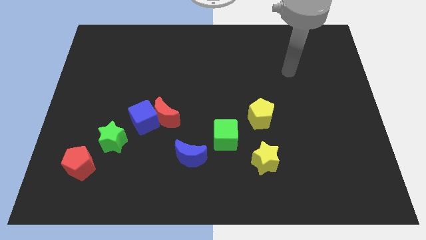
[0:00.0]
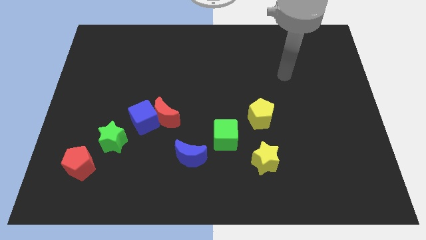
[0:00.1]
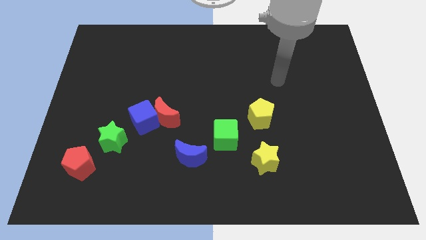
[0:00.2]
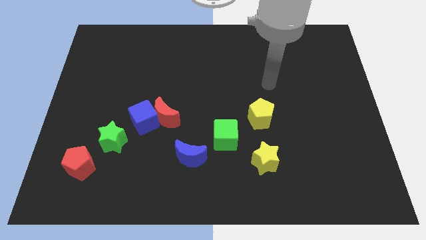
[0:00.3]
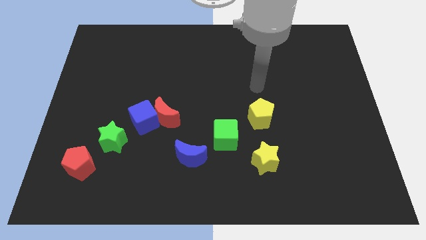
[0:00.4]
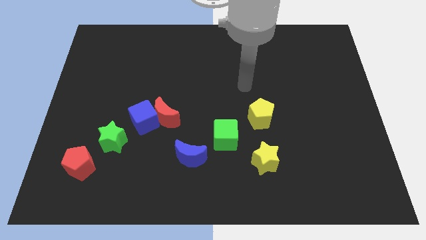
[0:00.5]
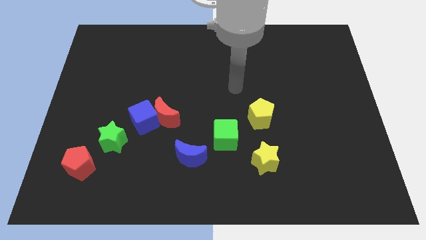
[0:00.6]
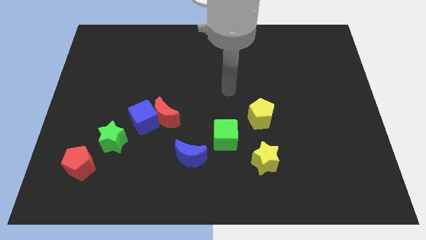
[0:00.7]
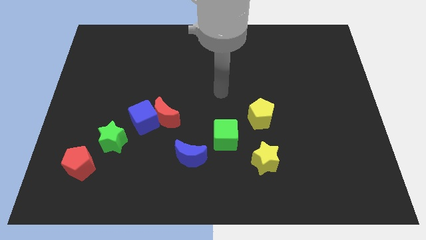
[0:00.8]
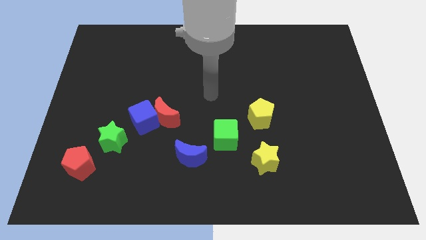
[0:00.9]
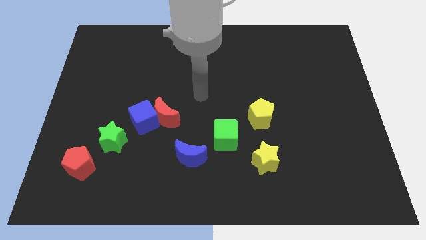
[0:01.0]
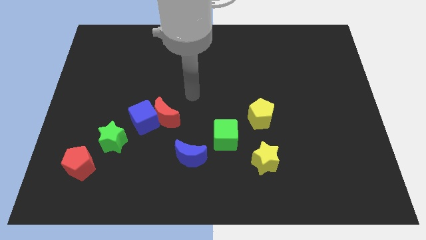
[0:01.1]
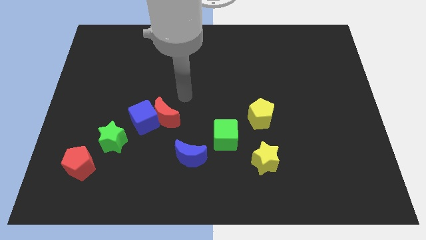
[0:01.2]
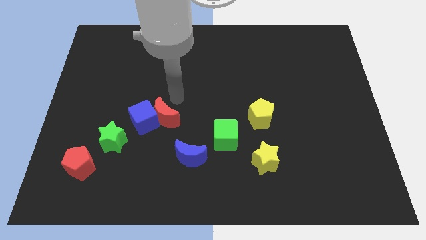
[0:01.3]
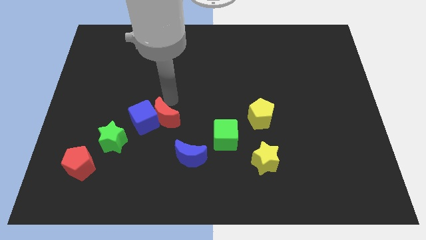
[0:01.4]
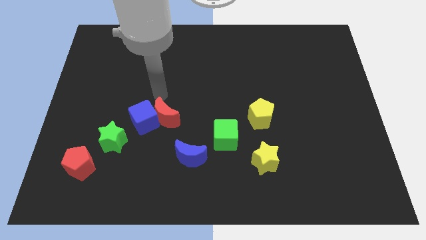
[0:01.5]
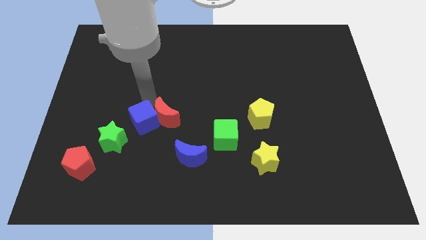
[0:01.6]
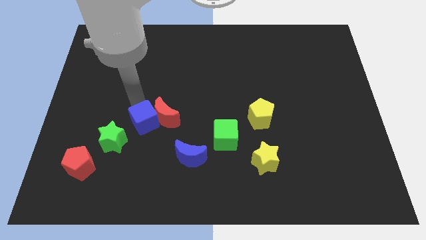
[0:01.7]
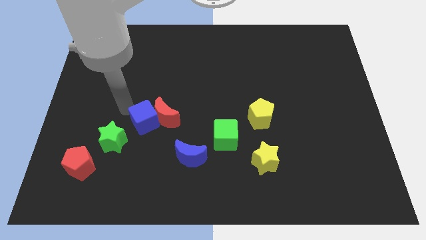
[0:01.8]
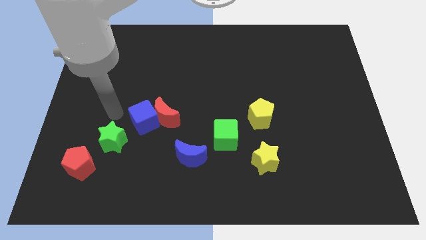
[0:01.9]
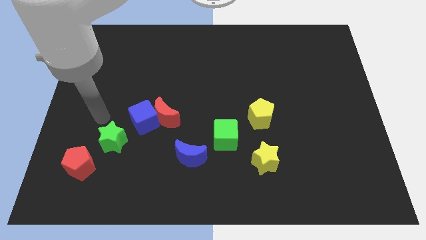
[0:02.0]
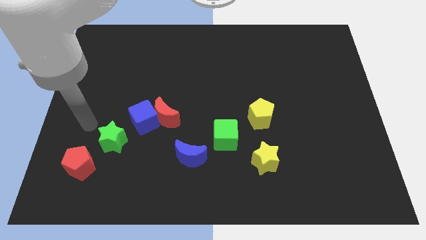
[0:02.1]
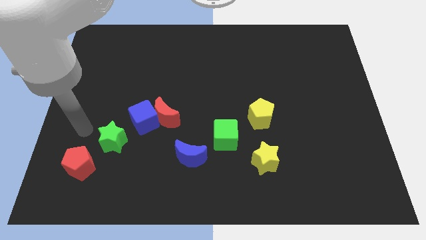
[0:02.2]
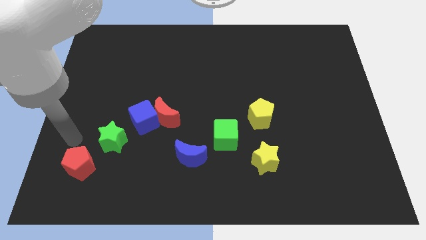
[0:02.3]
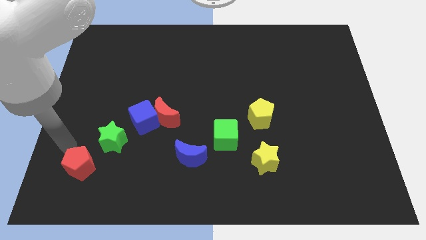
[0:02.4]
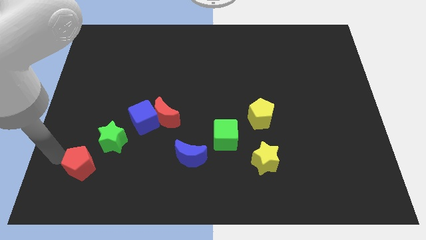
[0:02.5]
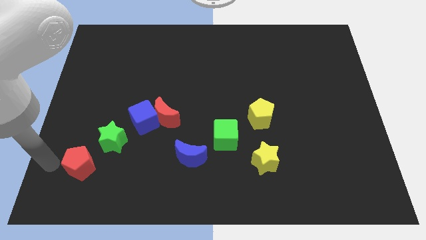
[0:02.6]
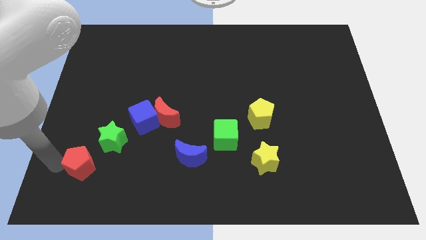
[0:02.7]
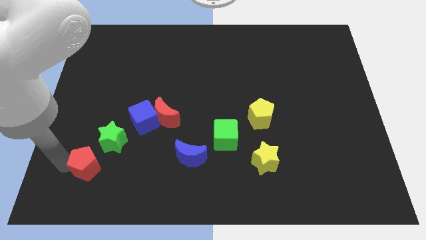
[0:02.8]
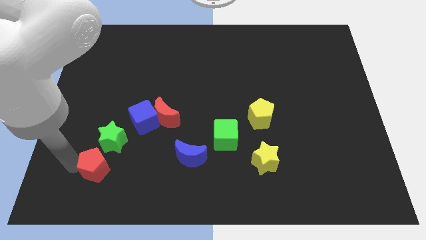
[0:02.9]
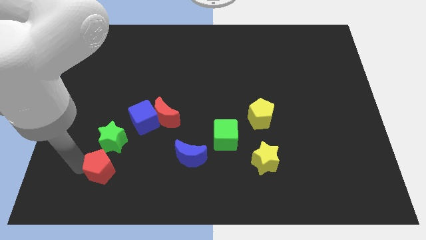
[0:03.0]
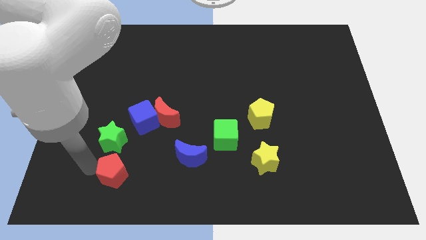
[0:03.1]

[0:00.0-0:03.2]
slide the red pentagon to the right somewhat

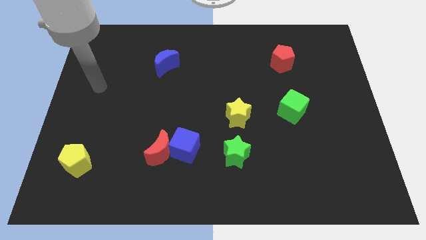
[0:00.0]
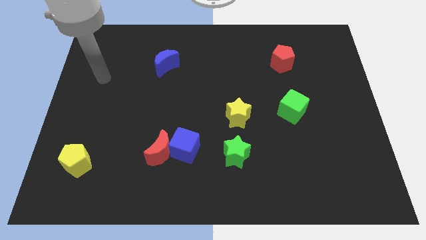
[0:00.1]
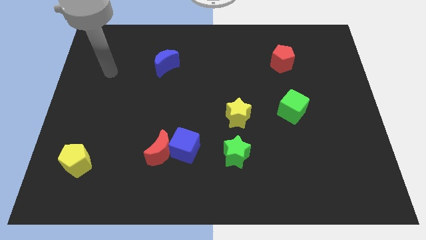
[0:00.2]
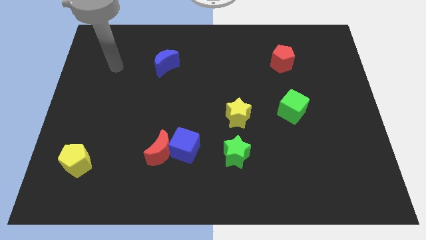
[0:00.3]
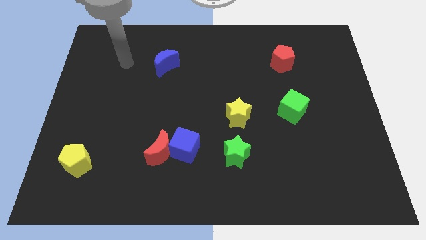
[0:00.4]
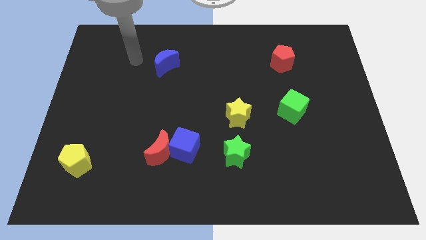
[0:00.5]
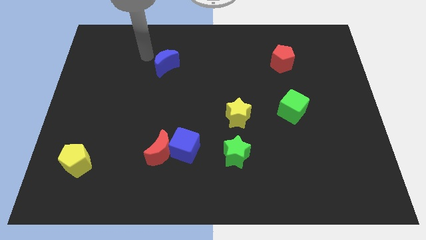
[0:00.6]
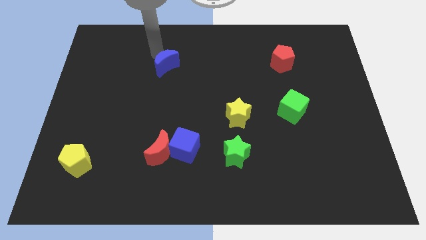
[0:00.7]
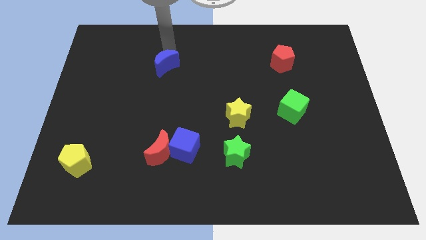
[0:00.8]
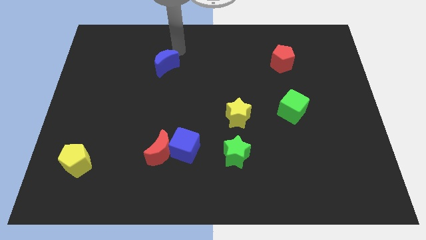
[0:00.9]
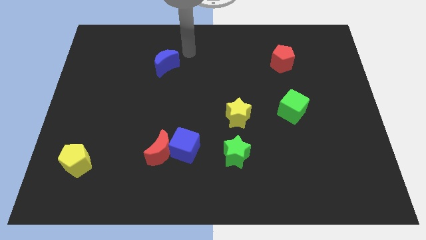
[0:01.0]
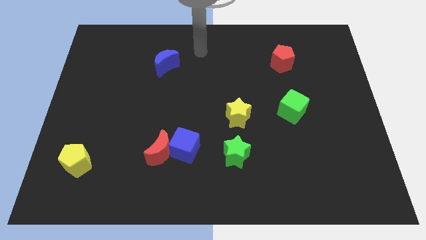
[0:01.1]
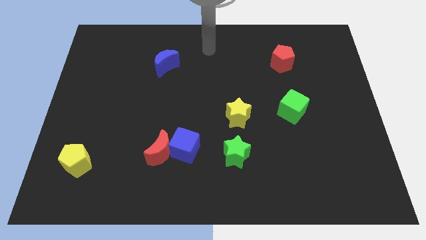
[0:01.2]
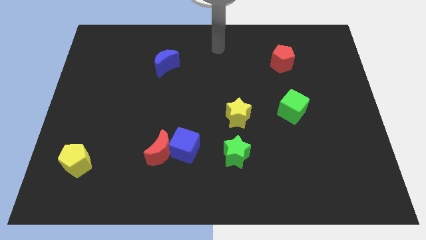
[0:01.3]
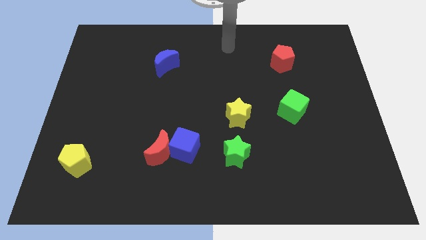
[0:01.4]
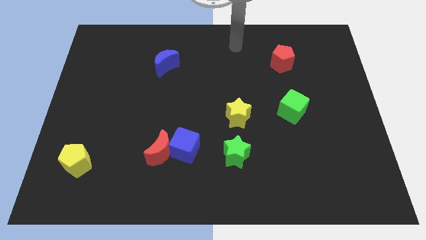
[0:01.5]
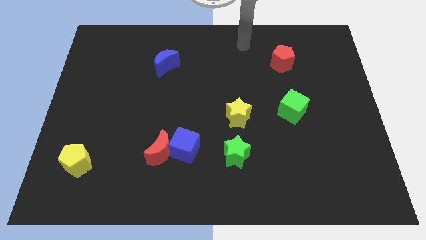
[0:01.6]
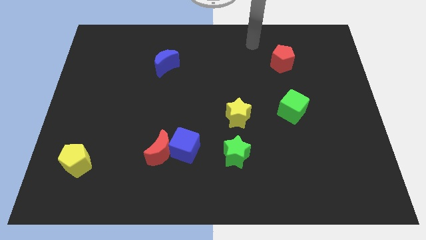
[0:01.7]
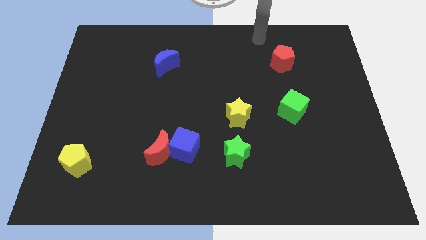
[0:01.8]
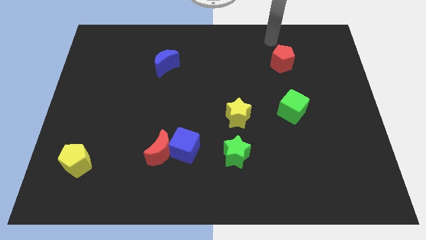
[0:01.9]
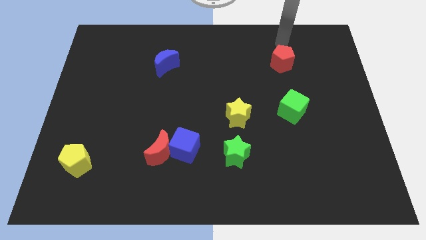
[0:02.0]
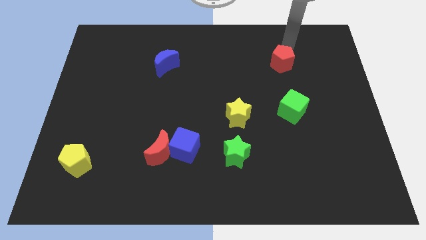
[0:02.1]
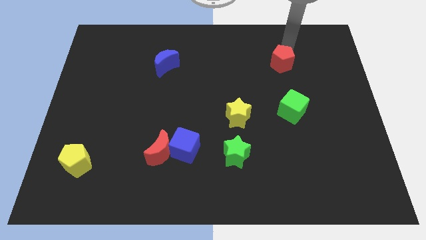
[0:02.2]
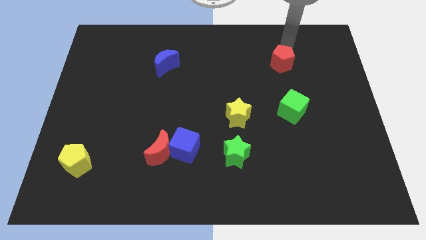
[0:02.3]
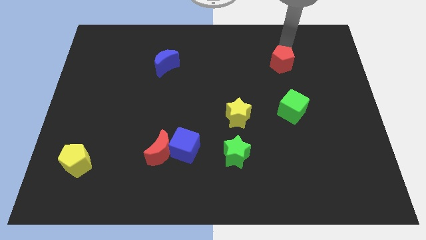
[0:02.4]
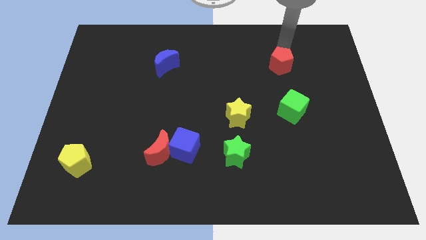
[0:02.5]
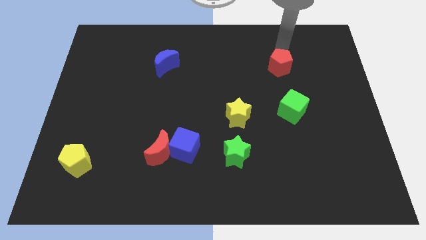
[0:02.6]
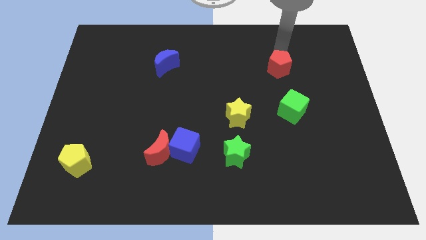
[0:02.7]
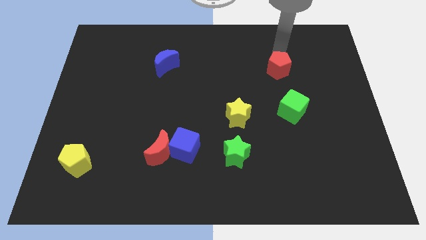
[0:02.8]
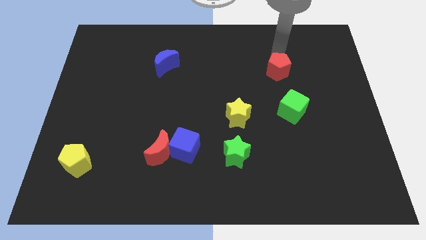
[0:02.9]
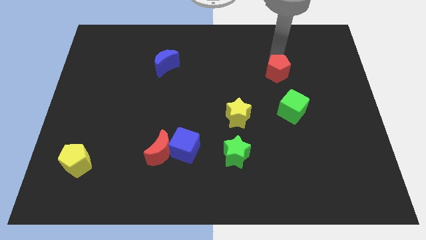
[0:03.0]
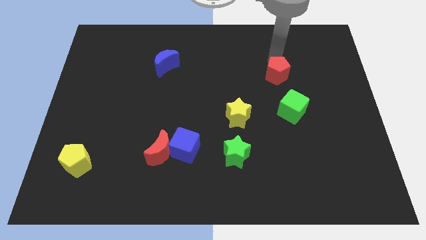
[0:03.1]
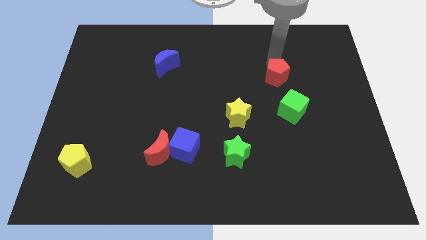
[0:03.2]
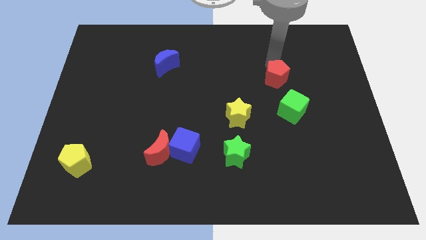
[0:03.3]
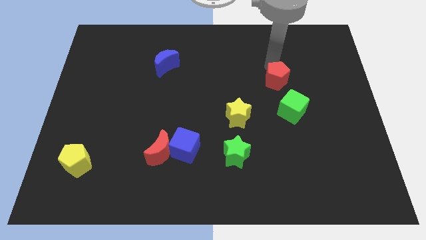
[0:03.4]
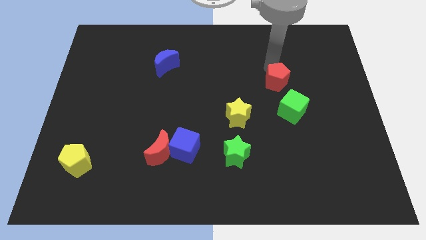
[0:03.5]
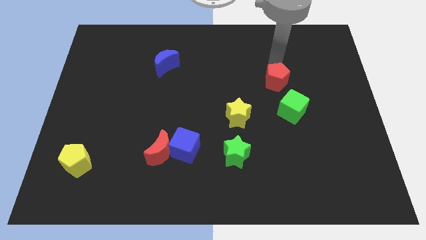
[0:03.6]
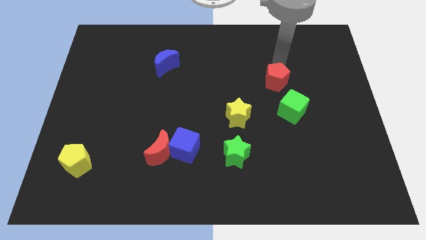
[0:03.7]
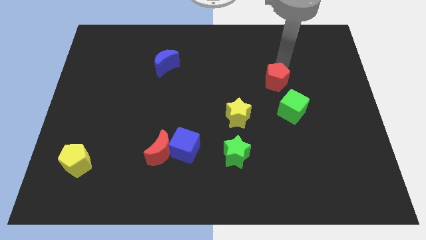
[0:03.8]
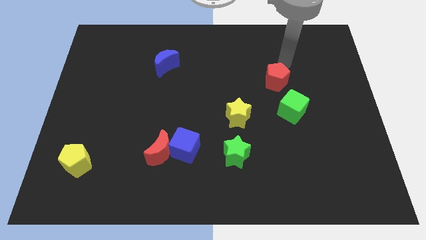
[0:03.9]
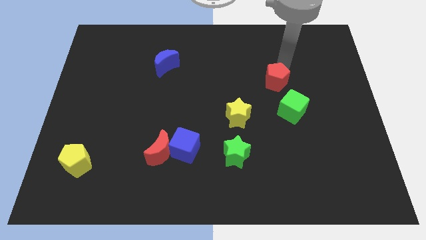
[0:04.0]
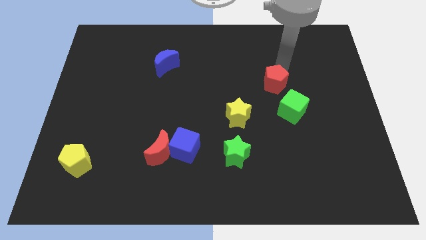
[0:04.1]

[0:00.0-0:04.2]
slightly slide the red pentagon downwards

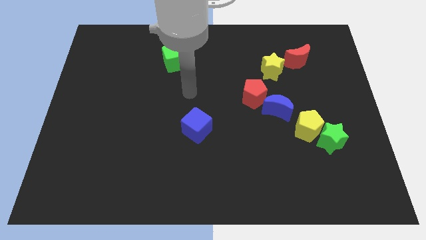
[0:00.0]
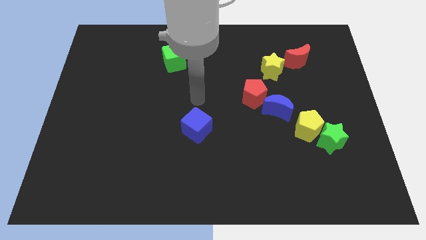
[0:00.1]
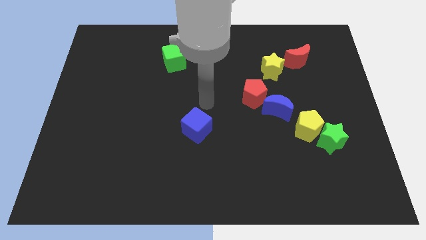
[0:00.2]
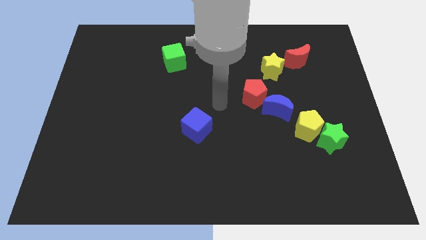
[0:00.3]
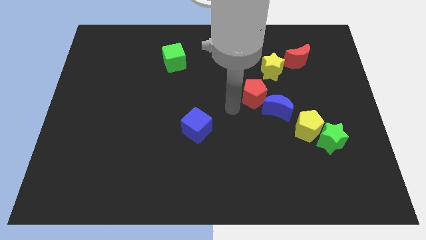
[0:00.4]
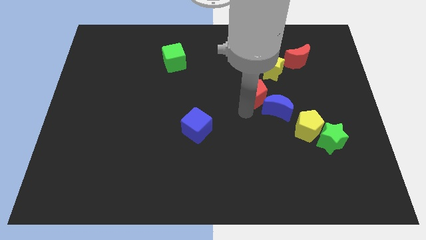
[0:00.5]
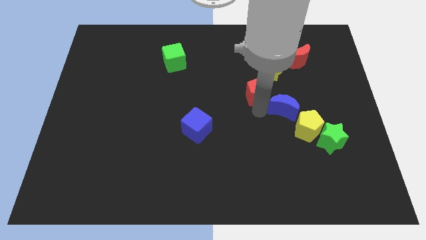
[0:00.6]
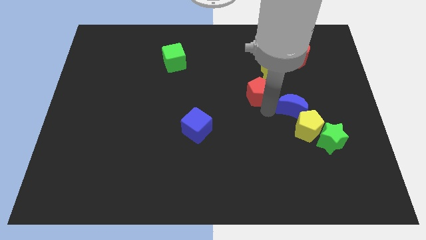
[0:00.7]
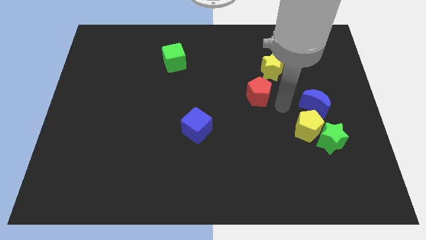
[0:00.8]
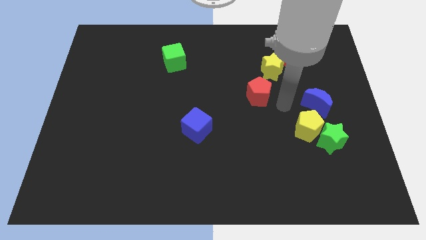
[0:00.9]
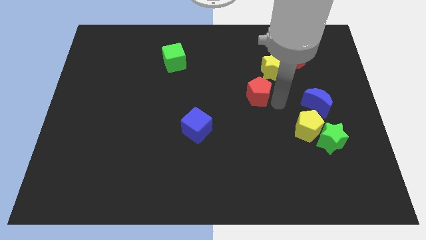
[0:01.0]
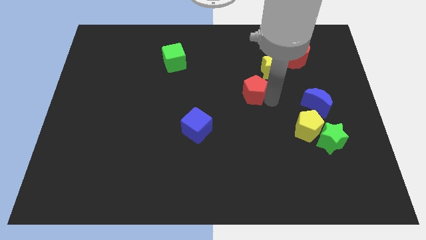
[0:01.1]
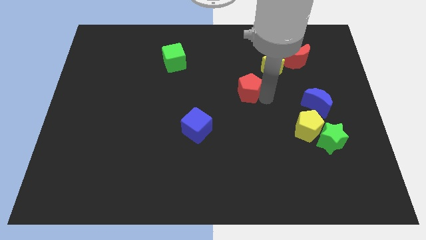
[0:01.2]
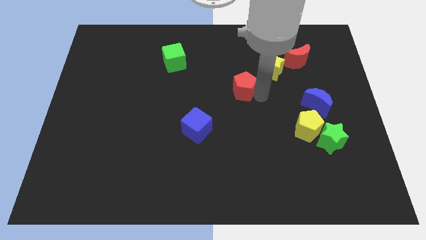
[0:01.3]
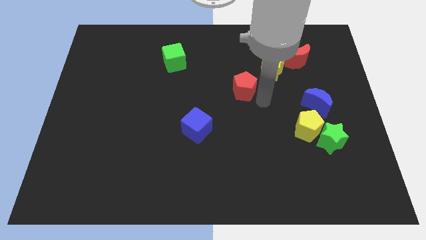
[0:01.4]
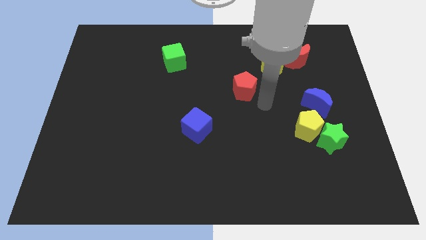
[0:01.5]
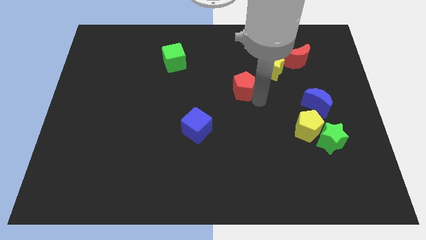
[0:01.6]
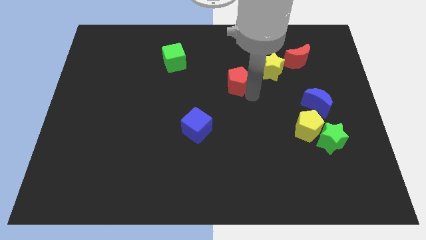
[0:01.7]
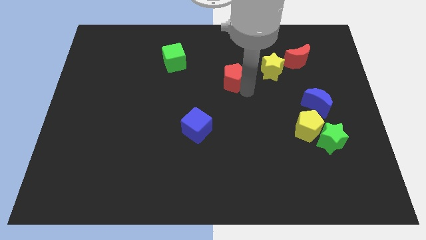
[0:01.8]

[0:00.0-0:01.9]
slightly slide the red pentagon diagonally up and to the left
